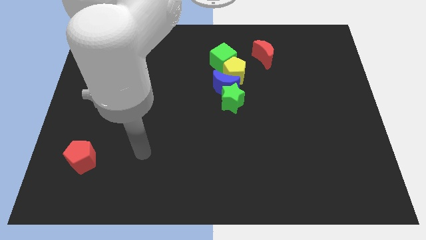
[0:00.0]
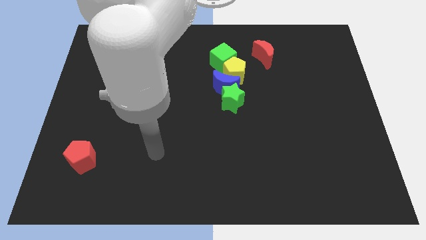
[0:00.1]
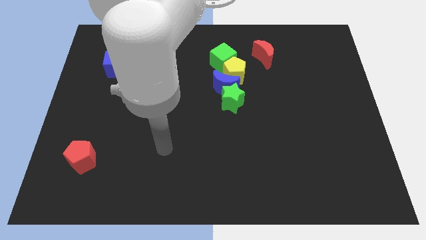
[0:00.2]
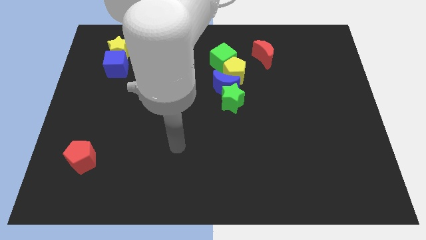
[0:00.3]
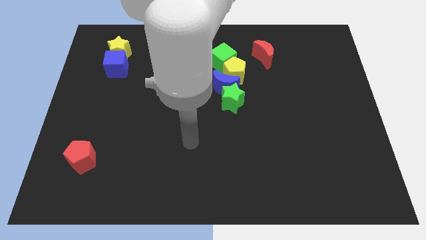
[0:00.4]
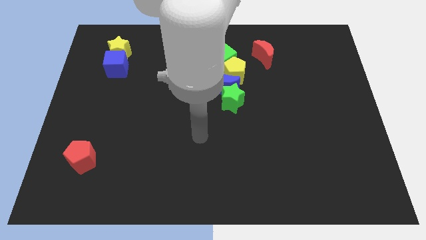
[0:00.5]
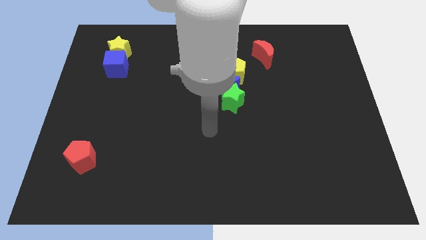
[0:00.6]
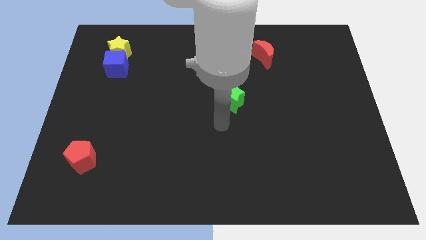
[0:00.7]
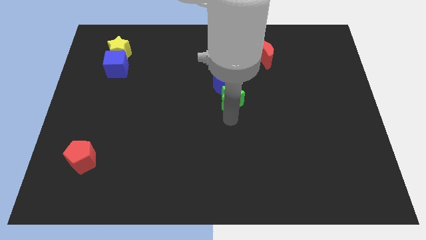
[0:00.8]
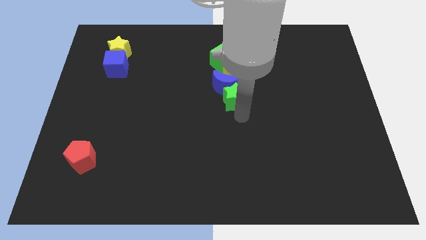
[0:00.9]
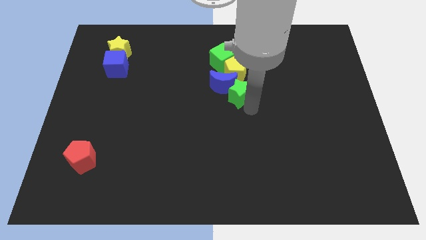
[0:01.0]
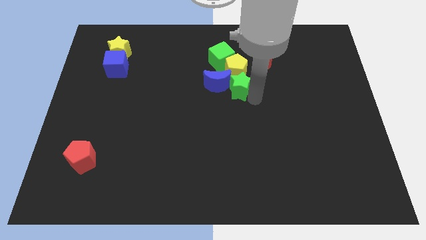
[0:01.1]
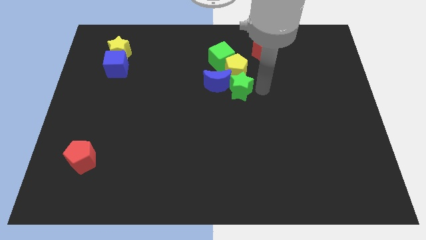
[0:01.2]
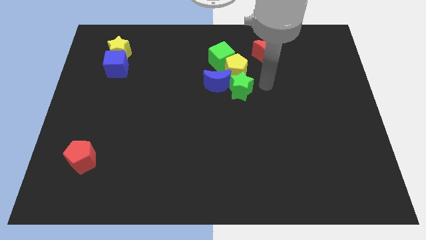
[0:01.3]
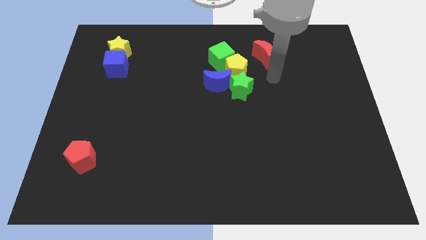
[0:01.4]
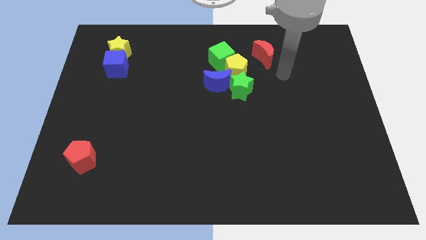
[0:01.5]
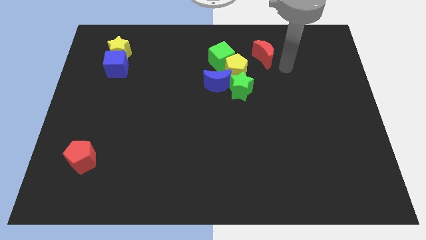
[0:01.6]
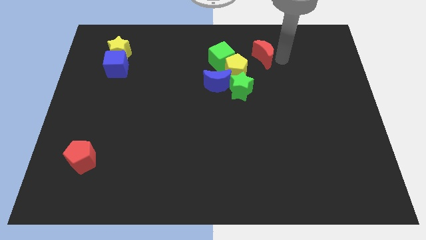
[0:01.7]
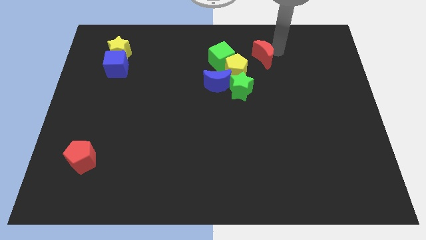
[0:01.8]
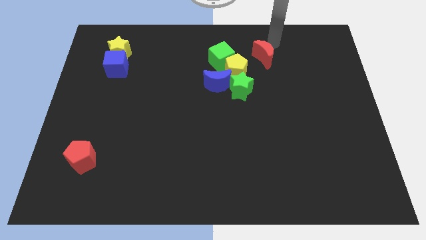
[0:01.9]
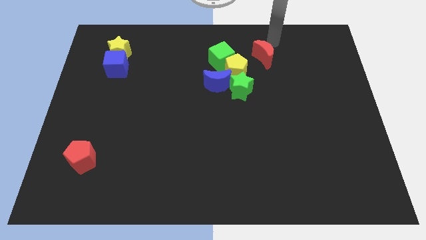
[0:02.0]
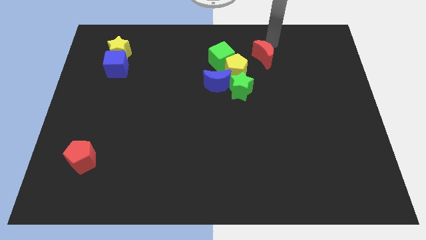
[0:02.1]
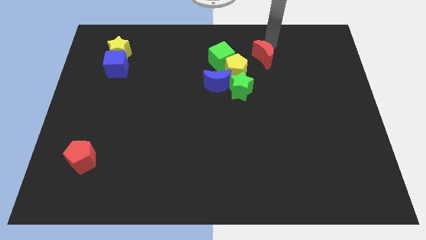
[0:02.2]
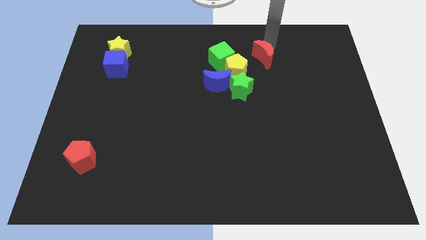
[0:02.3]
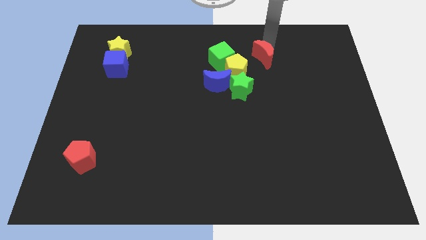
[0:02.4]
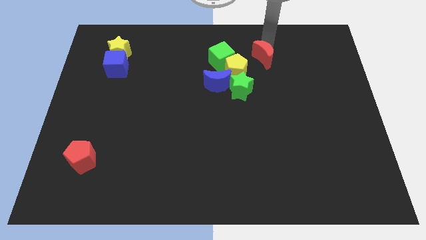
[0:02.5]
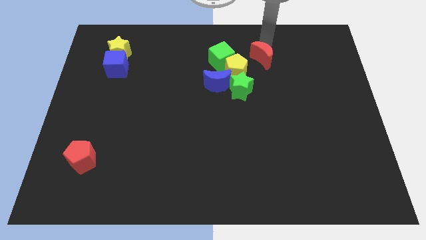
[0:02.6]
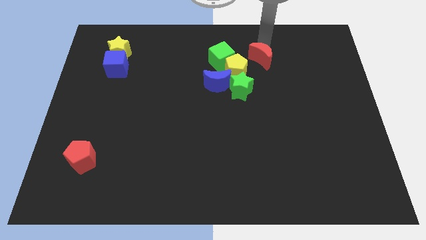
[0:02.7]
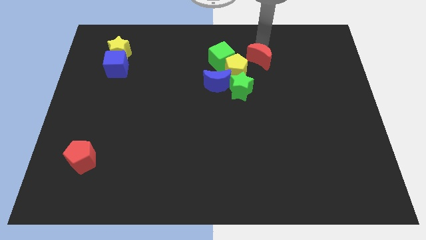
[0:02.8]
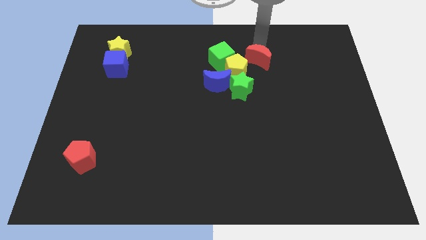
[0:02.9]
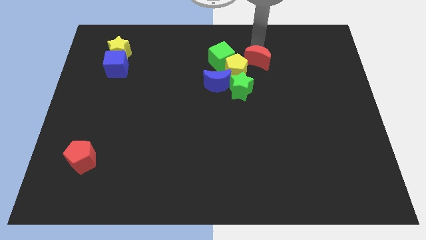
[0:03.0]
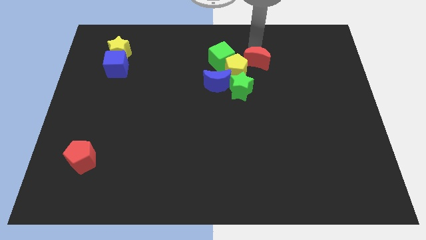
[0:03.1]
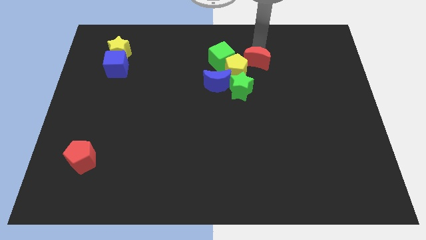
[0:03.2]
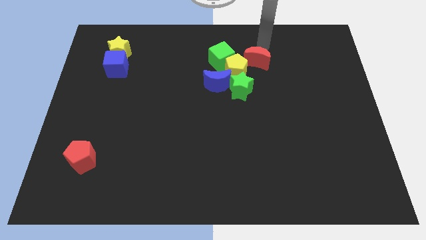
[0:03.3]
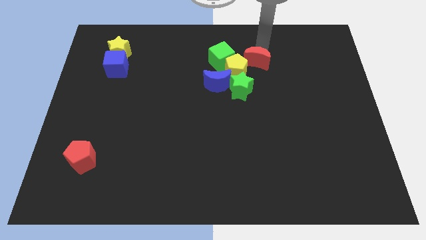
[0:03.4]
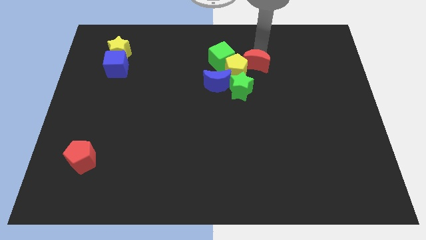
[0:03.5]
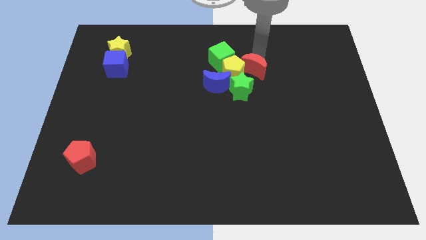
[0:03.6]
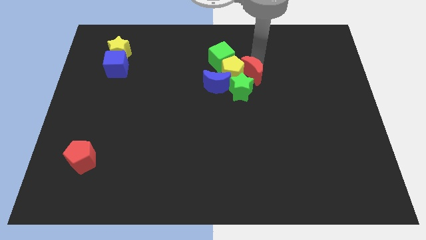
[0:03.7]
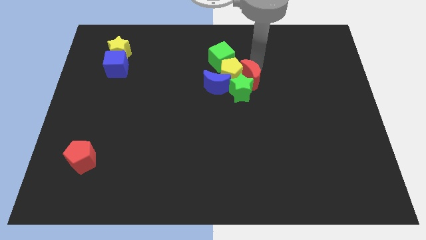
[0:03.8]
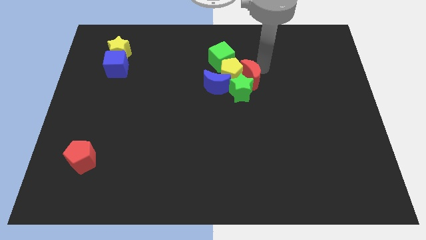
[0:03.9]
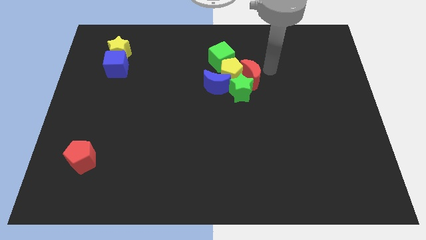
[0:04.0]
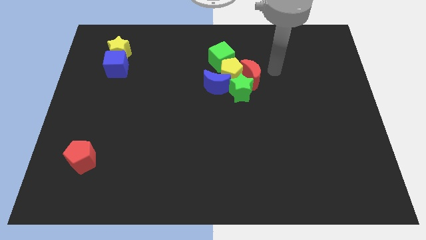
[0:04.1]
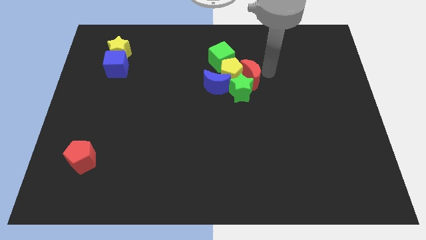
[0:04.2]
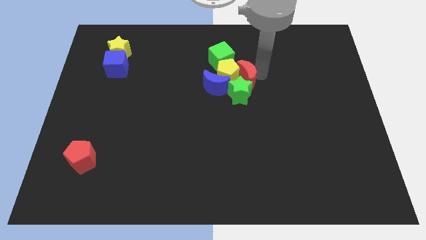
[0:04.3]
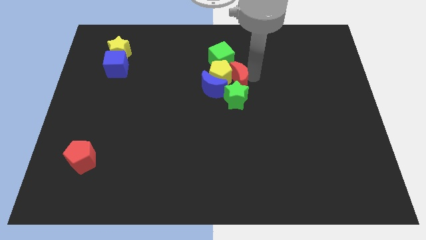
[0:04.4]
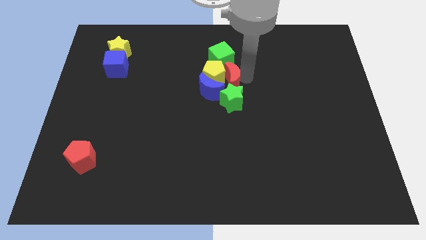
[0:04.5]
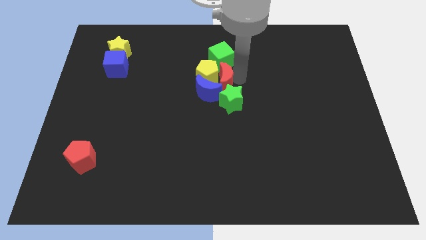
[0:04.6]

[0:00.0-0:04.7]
move the red moon close to the blue moon

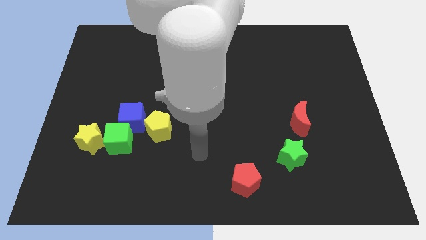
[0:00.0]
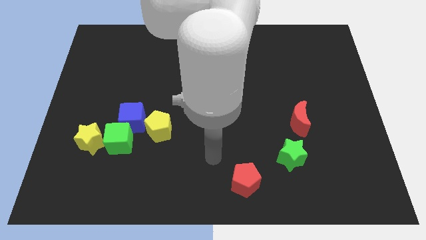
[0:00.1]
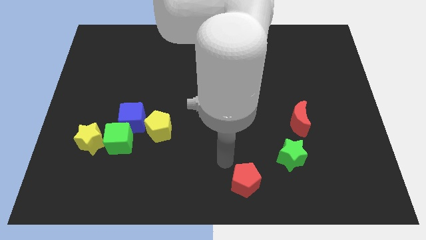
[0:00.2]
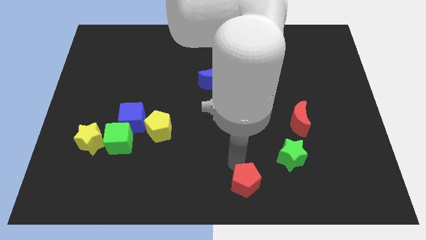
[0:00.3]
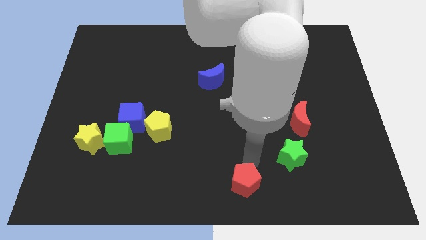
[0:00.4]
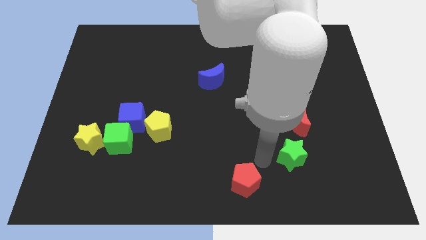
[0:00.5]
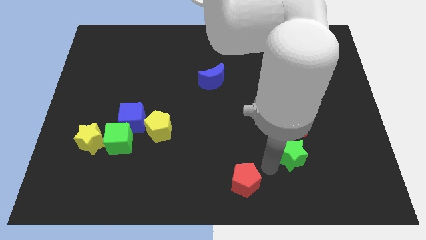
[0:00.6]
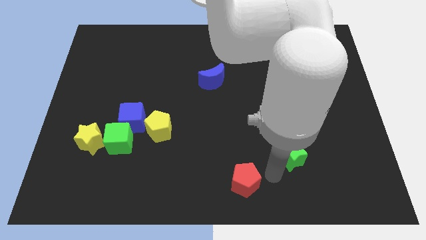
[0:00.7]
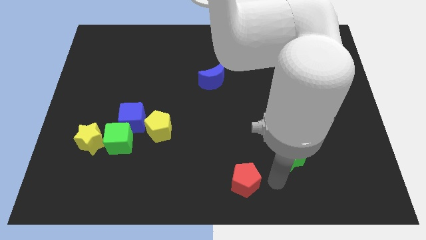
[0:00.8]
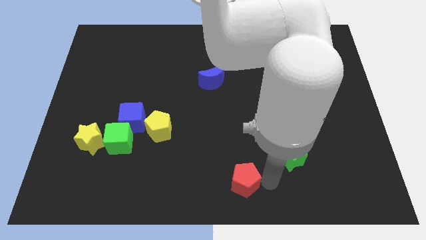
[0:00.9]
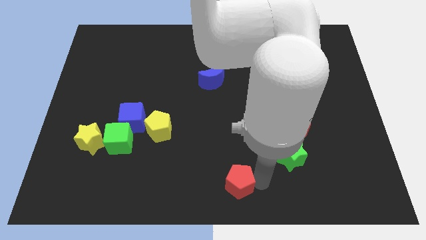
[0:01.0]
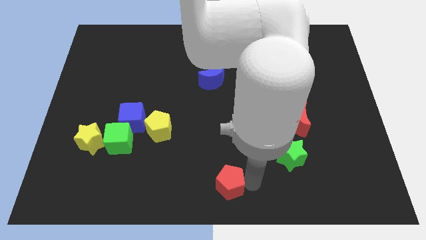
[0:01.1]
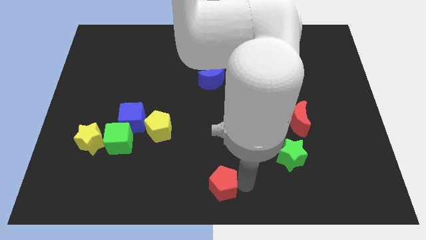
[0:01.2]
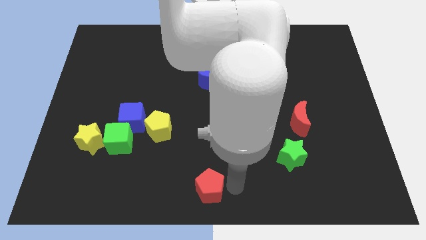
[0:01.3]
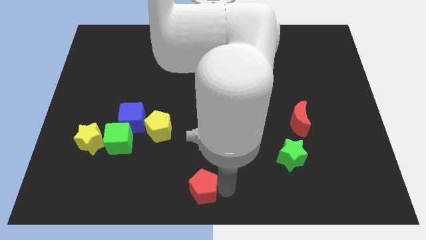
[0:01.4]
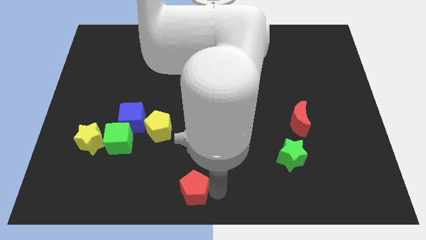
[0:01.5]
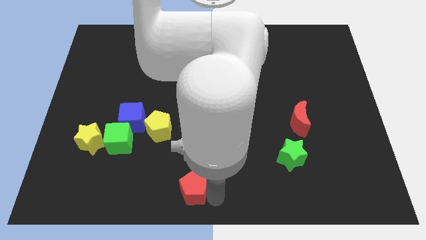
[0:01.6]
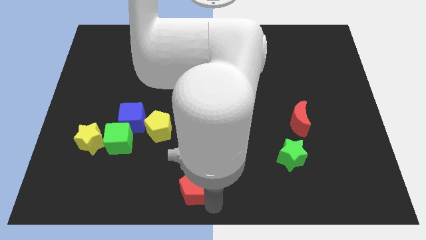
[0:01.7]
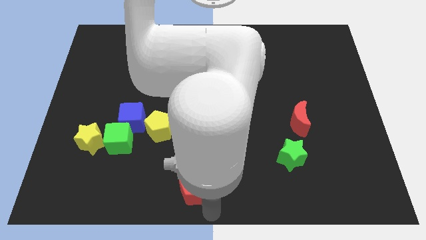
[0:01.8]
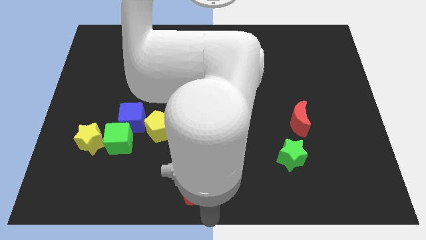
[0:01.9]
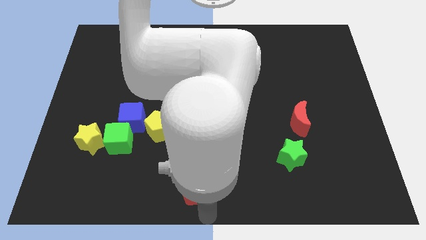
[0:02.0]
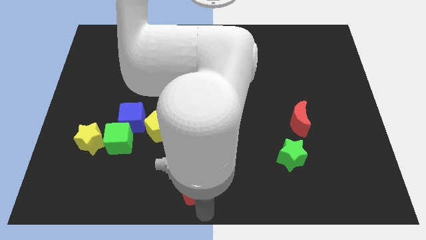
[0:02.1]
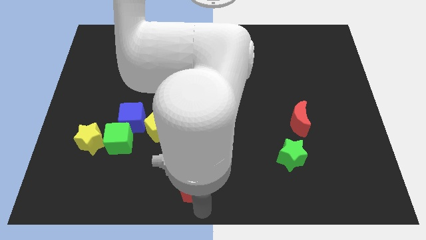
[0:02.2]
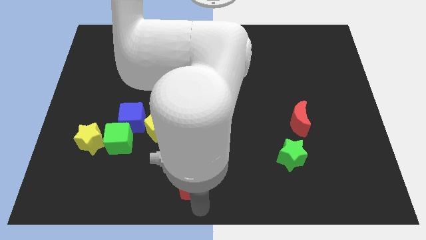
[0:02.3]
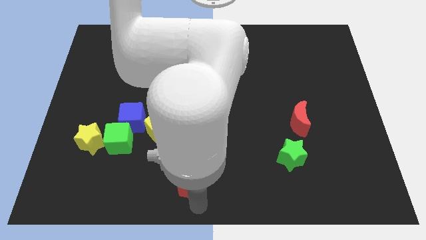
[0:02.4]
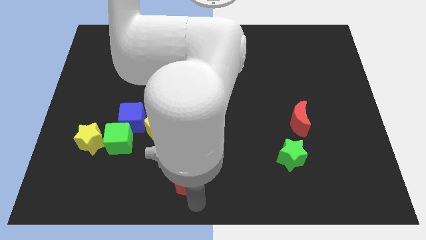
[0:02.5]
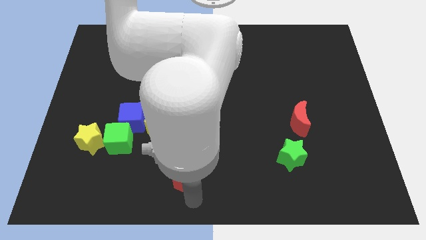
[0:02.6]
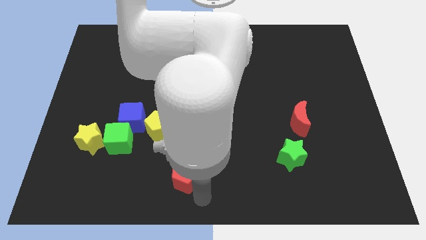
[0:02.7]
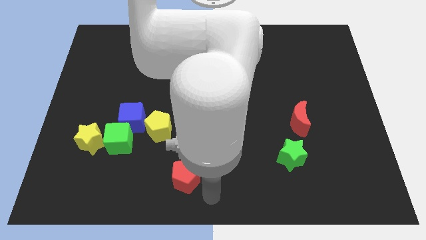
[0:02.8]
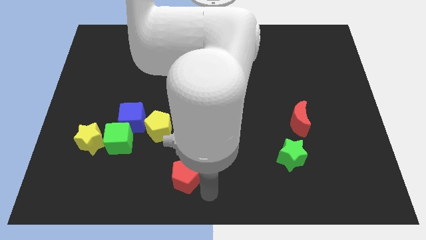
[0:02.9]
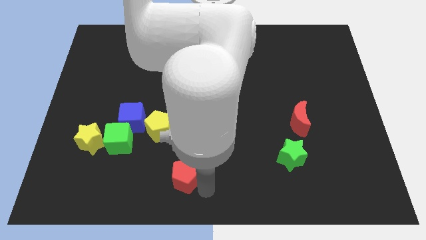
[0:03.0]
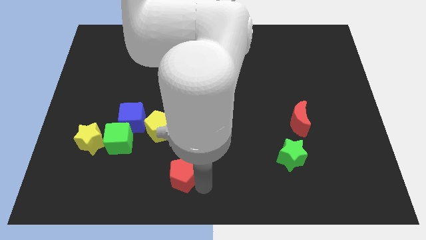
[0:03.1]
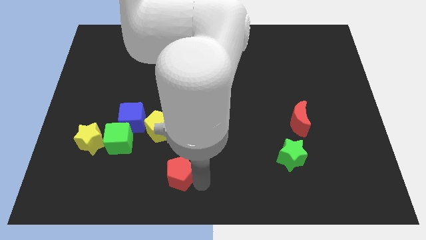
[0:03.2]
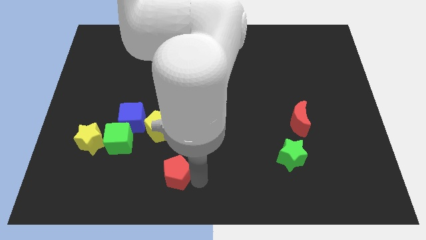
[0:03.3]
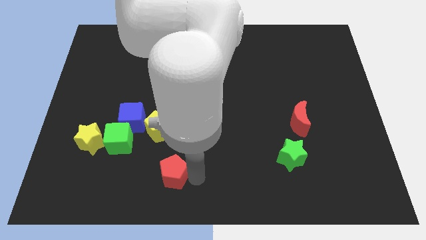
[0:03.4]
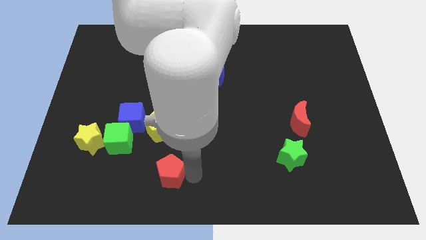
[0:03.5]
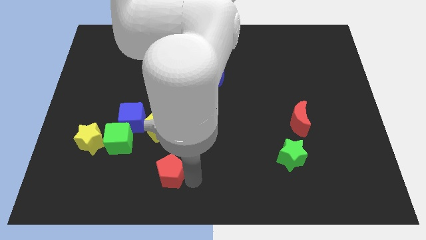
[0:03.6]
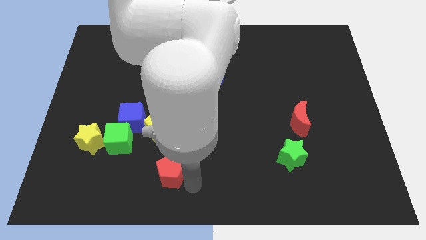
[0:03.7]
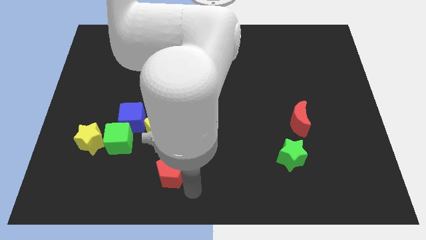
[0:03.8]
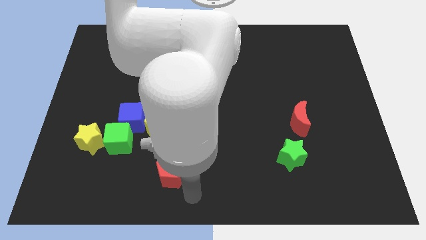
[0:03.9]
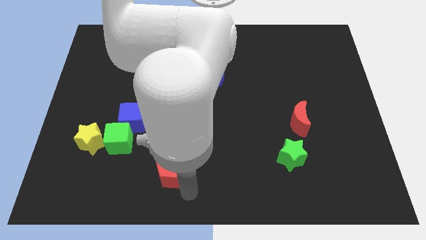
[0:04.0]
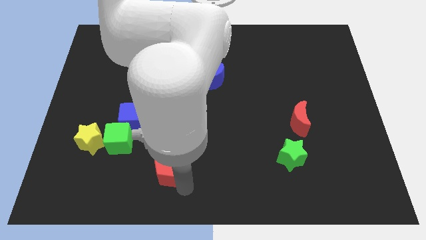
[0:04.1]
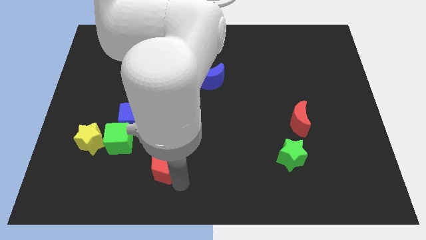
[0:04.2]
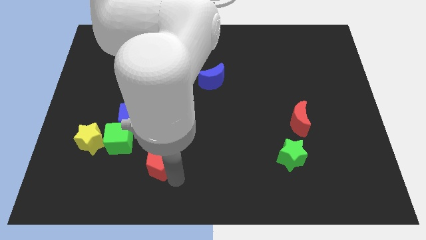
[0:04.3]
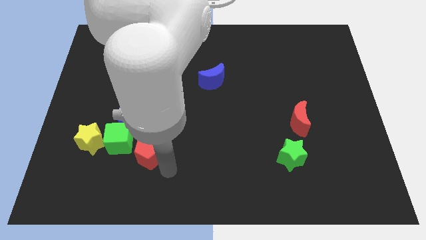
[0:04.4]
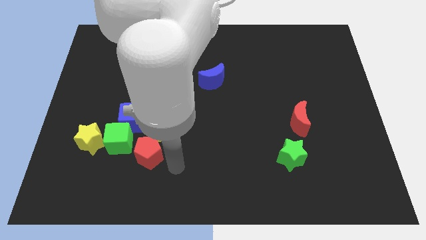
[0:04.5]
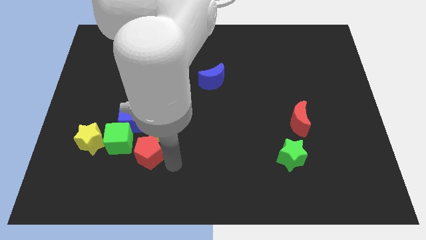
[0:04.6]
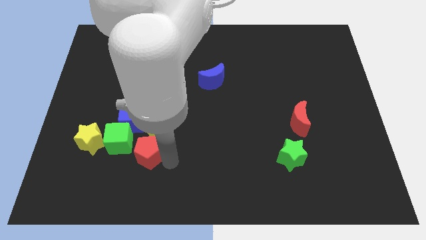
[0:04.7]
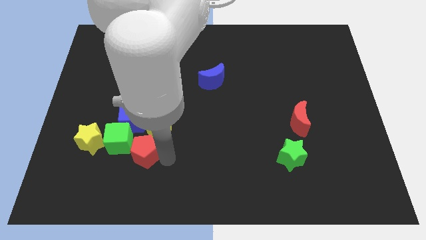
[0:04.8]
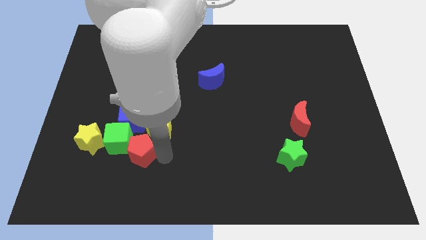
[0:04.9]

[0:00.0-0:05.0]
move the red pentagon next to the green cube
